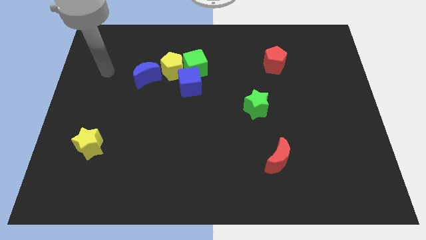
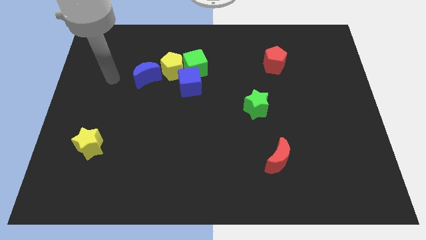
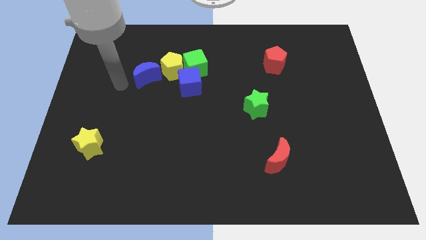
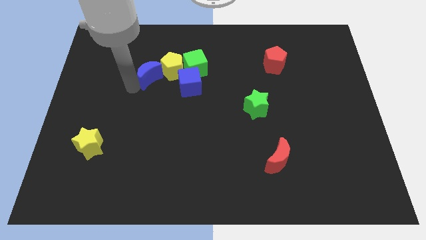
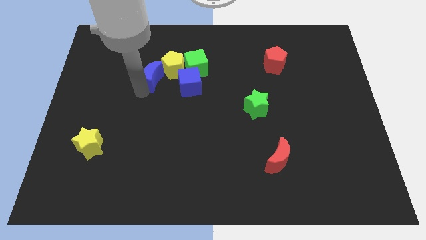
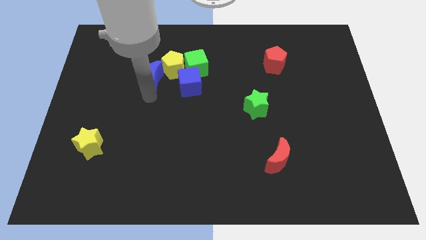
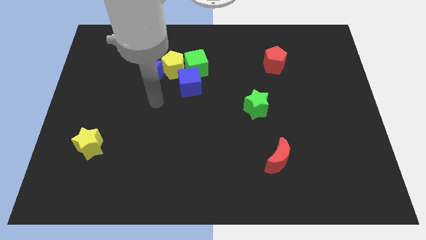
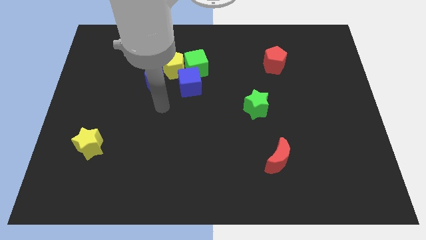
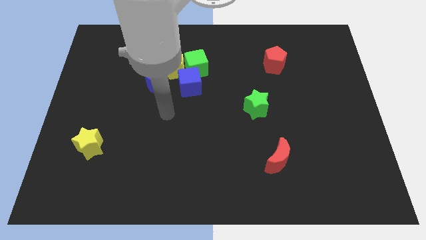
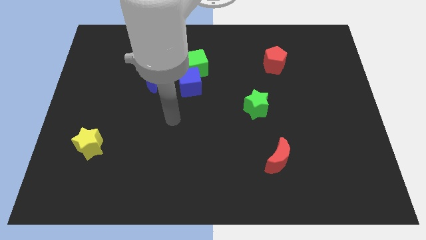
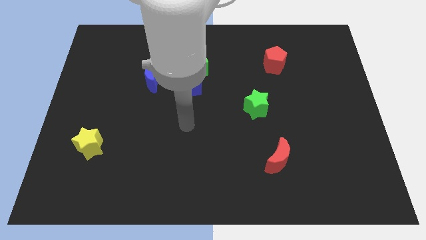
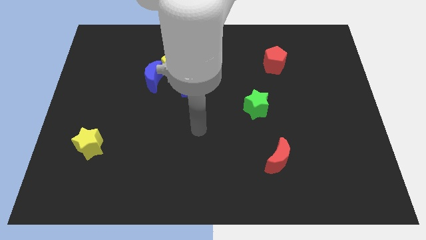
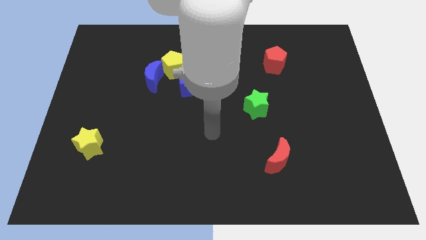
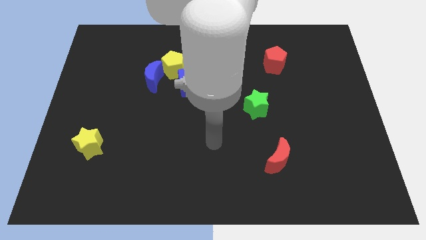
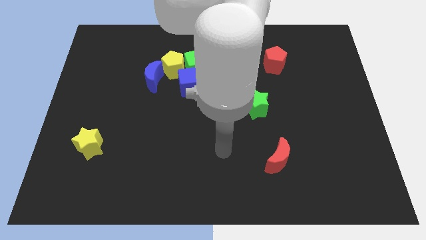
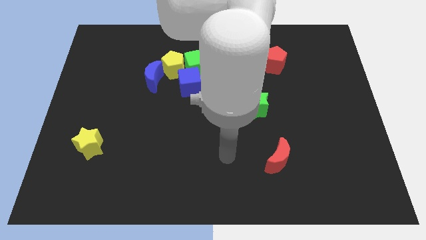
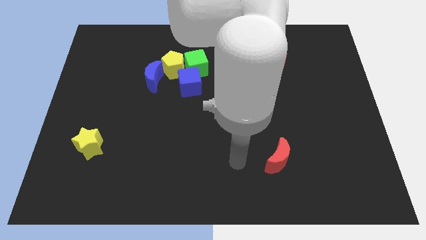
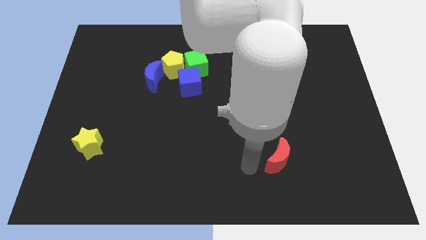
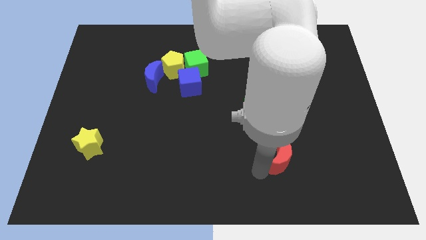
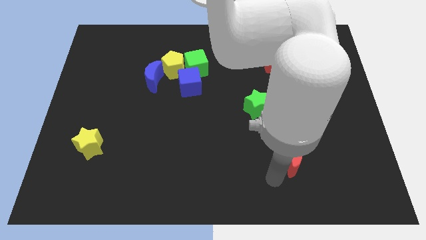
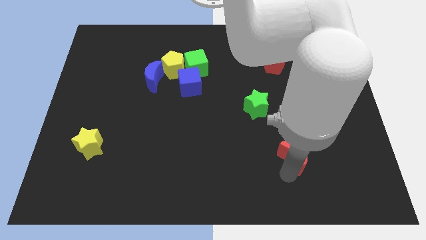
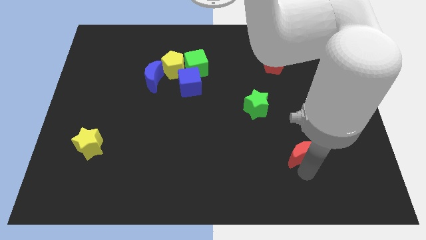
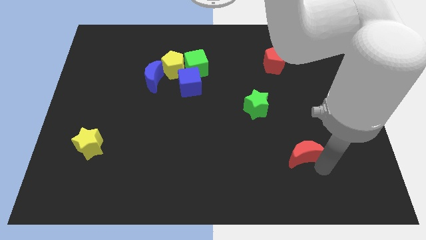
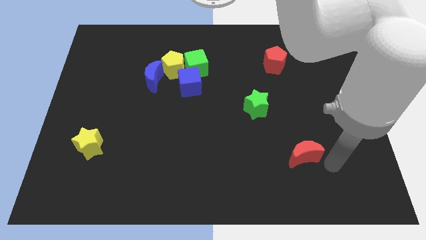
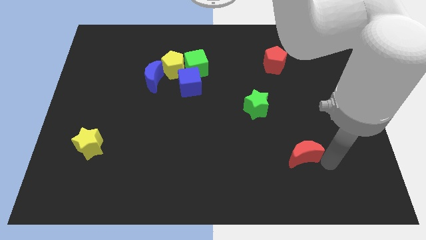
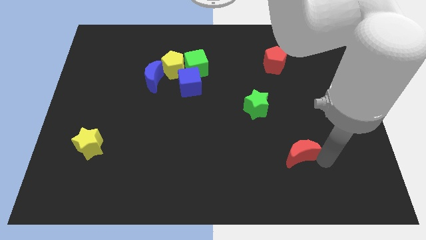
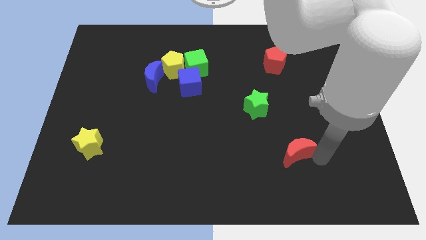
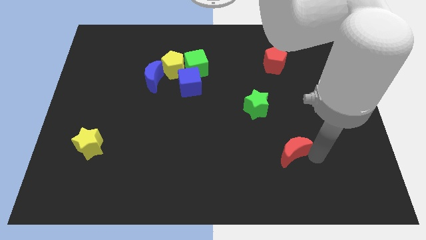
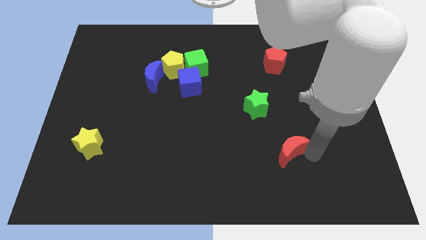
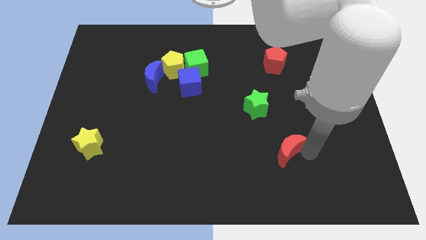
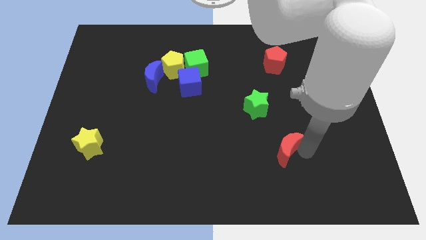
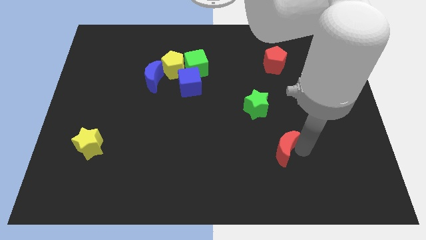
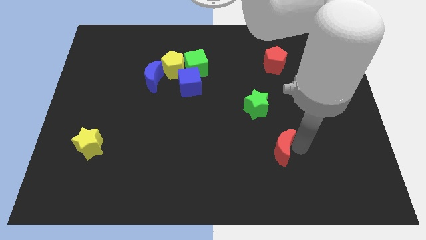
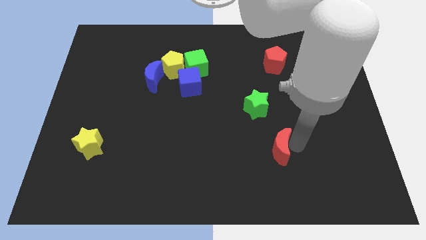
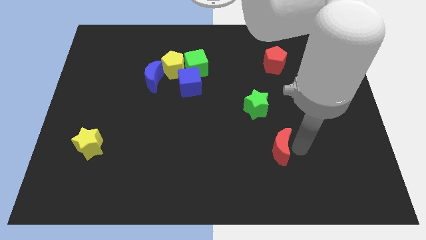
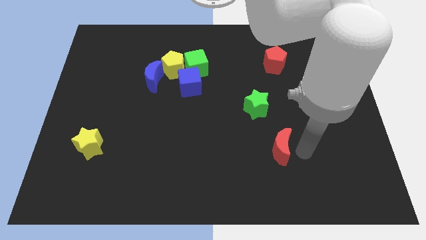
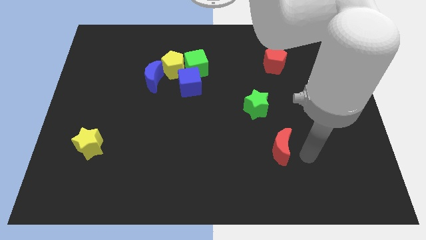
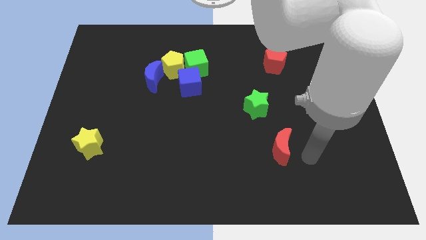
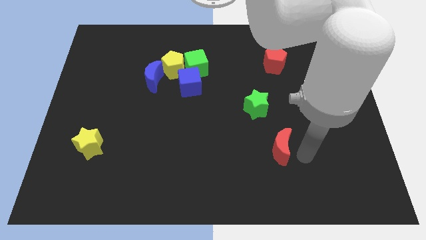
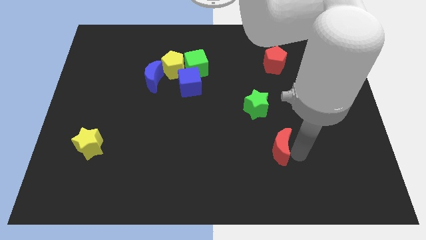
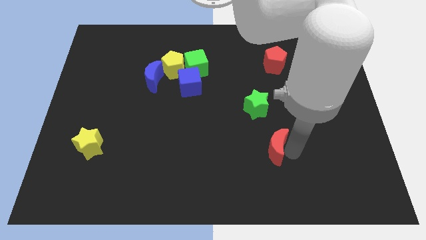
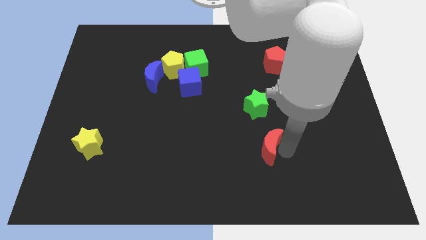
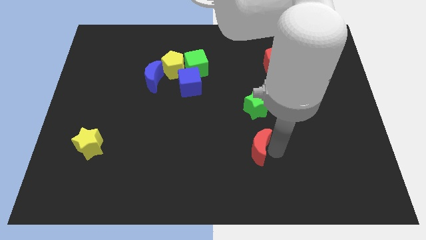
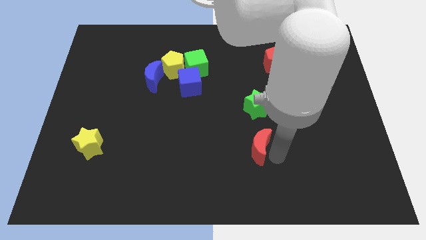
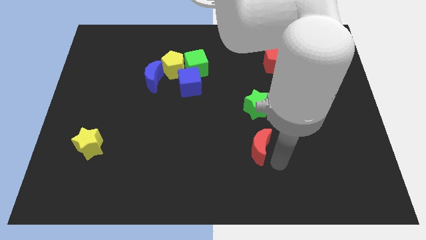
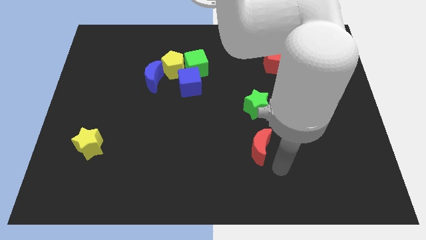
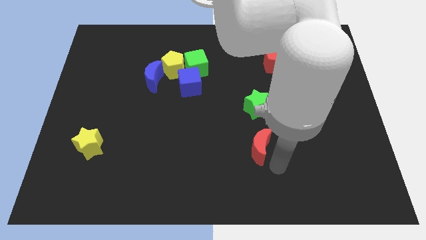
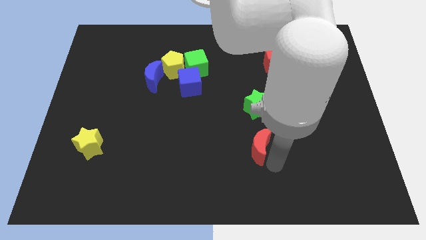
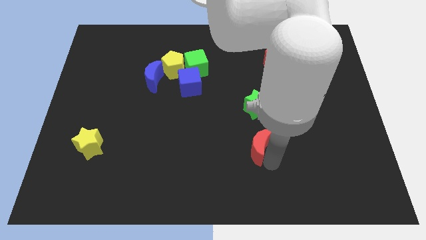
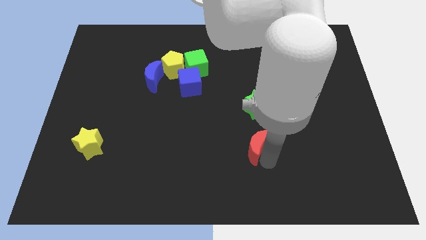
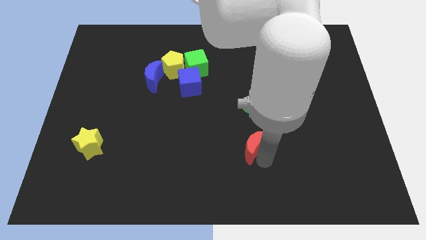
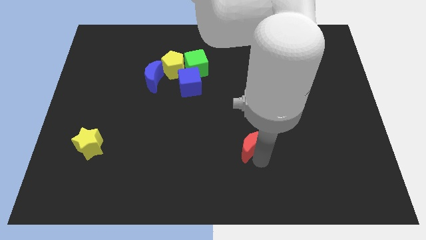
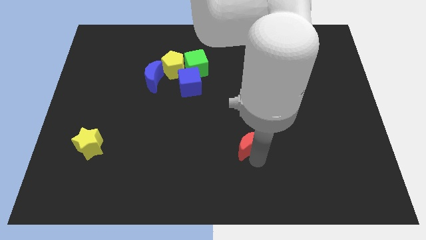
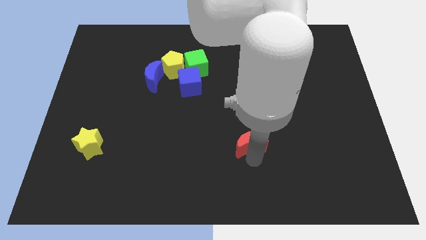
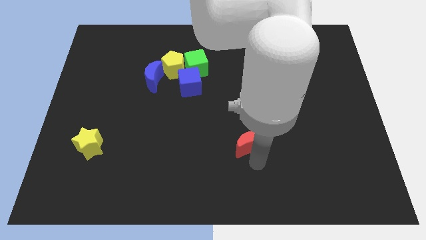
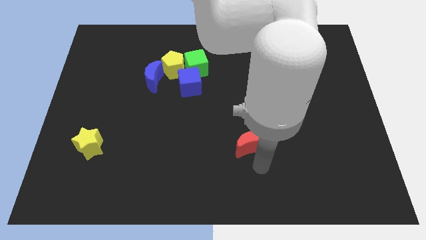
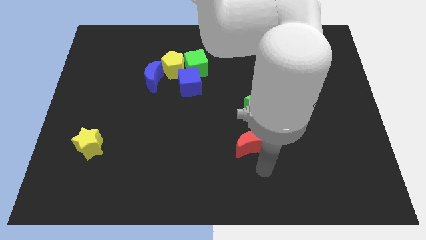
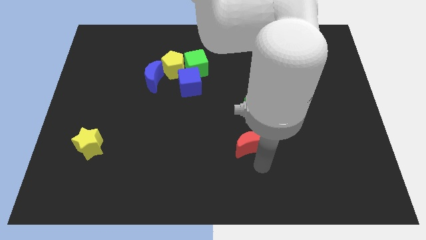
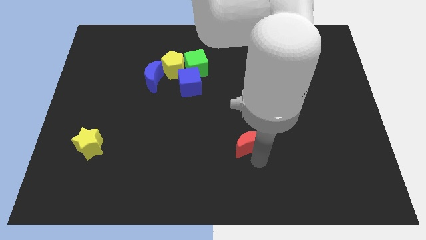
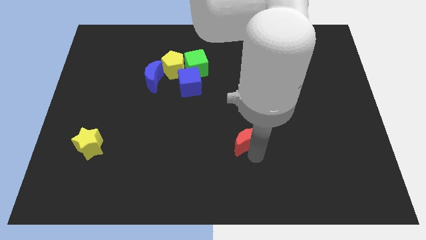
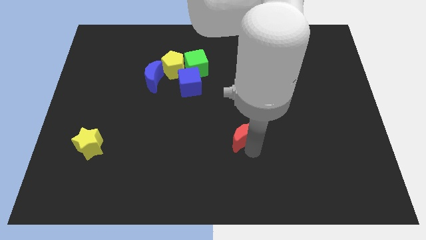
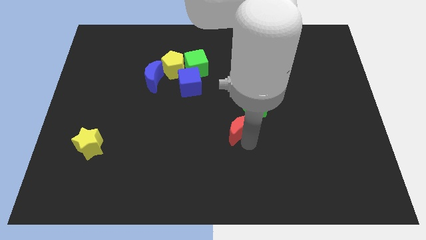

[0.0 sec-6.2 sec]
move the red moon to the center
